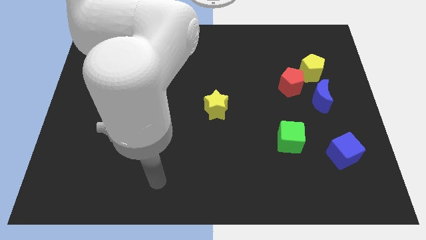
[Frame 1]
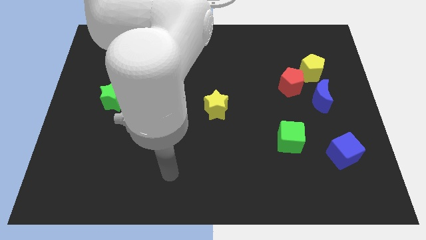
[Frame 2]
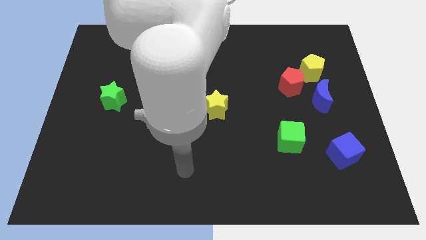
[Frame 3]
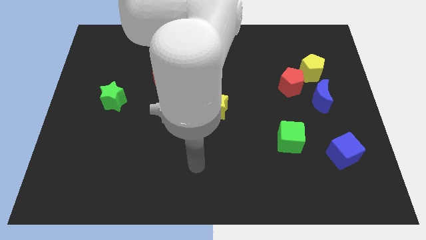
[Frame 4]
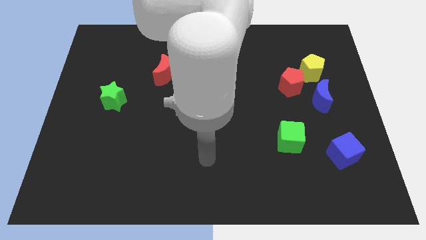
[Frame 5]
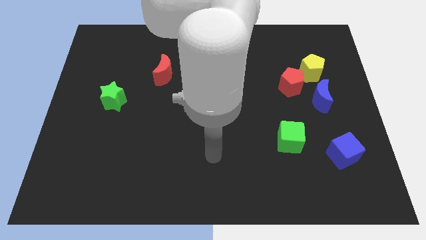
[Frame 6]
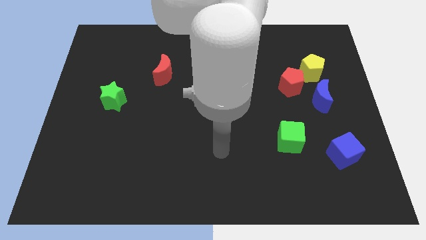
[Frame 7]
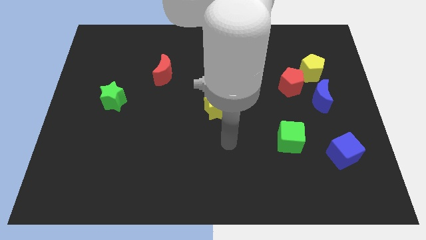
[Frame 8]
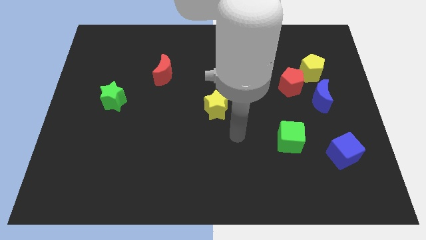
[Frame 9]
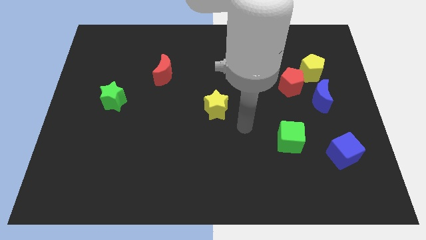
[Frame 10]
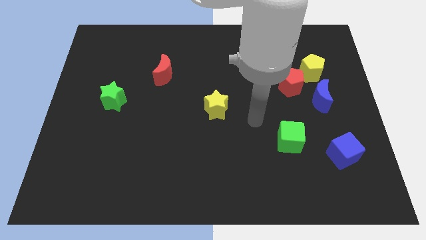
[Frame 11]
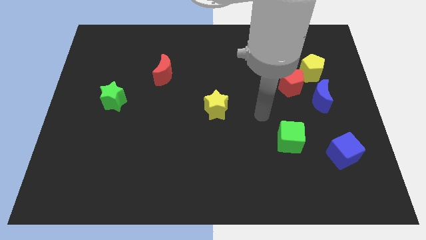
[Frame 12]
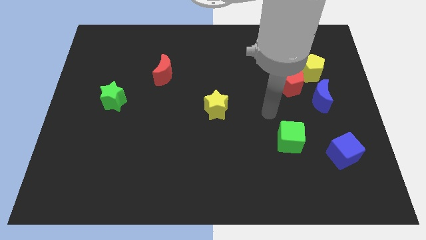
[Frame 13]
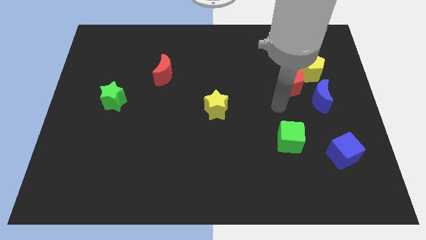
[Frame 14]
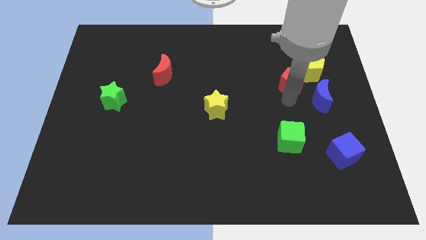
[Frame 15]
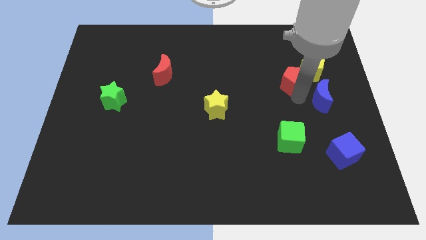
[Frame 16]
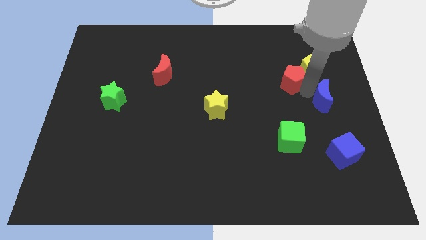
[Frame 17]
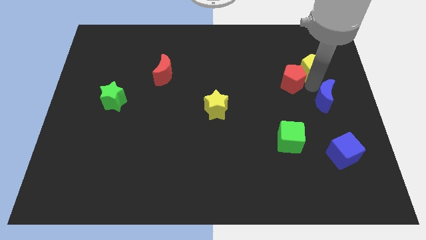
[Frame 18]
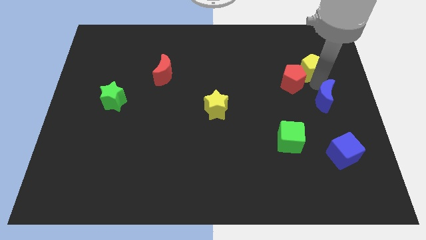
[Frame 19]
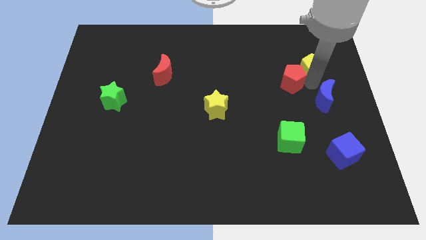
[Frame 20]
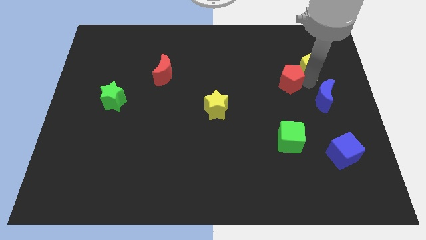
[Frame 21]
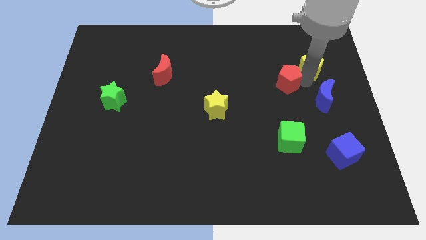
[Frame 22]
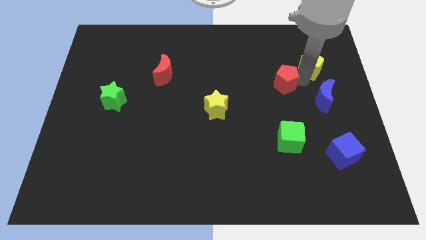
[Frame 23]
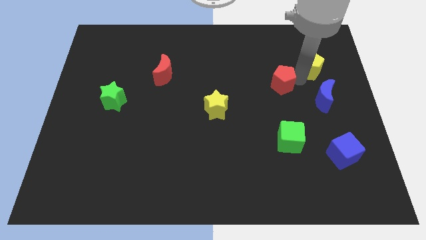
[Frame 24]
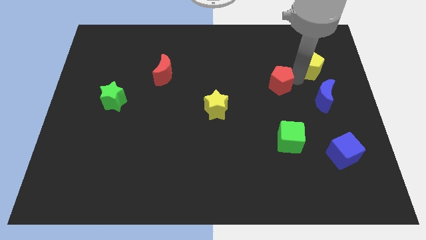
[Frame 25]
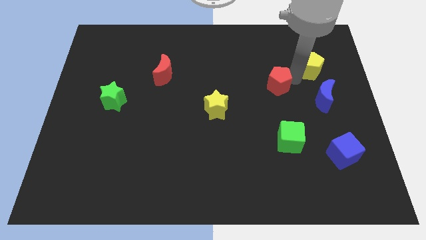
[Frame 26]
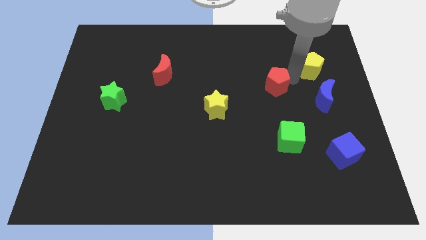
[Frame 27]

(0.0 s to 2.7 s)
pull the red pentagon apart from the yellow pentagon and blue moon

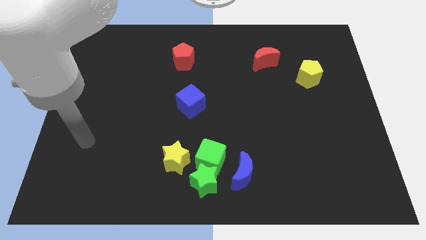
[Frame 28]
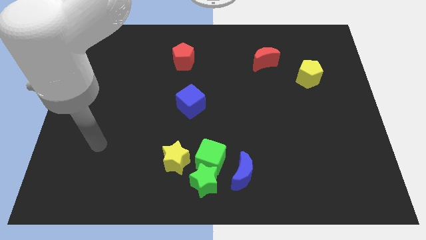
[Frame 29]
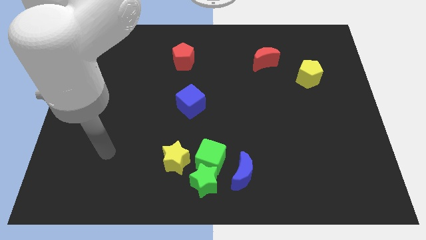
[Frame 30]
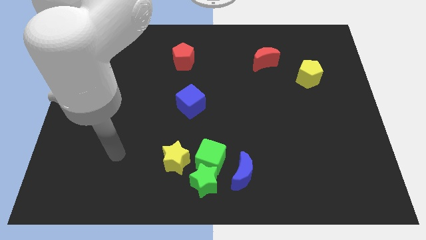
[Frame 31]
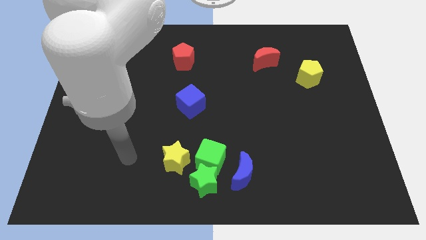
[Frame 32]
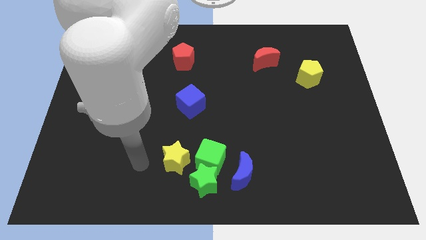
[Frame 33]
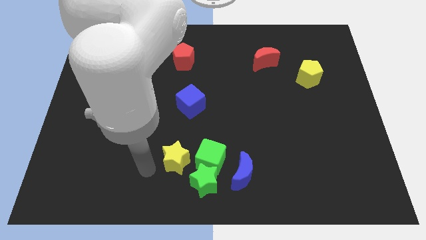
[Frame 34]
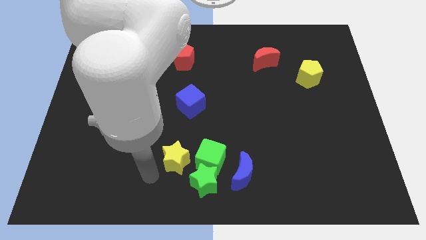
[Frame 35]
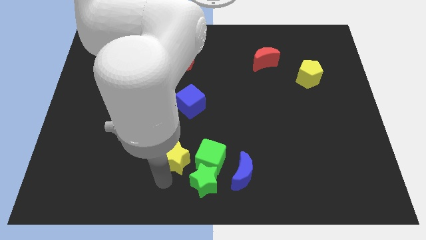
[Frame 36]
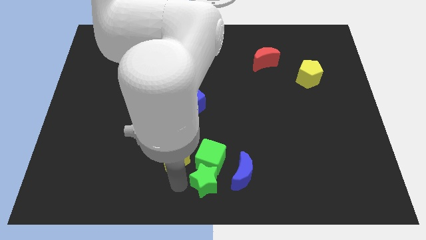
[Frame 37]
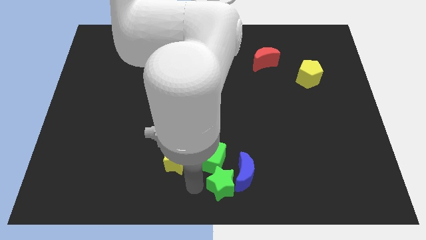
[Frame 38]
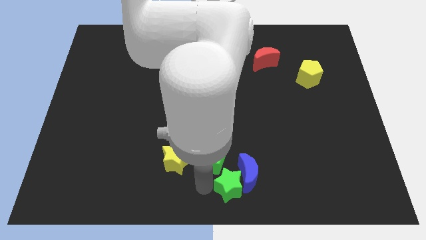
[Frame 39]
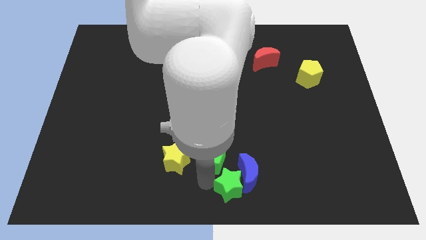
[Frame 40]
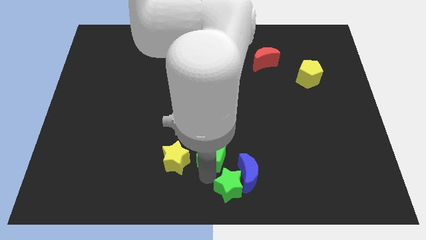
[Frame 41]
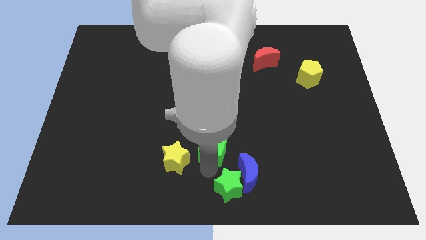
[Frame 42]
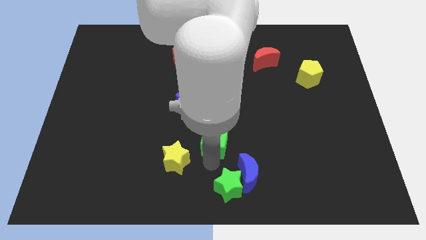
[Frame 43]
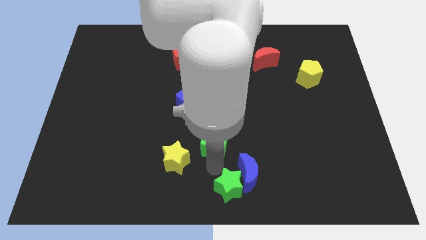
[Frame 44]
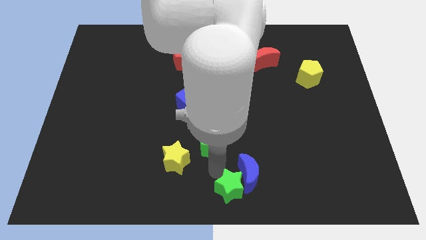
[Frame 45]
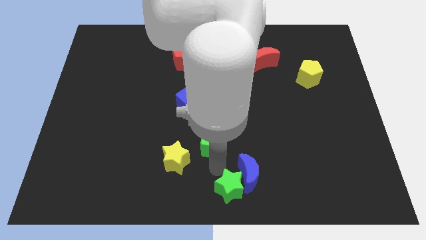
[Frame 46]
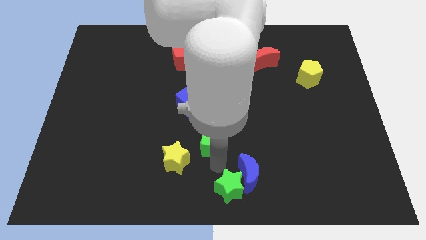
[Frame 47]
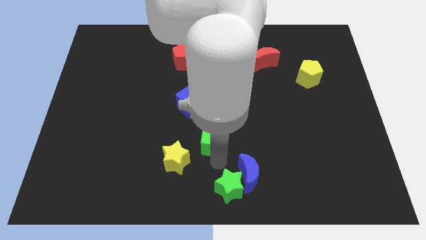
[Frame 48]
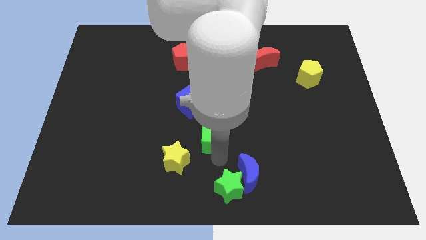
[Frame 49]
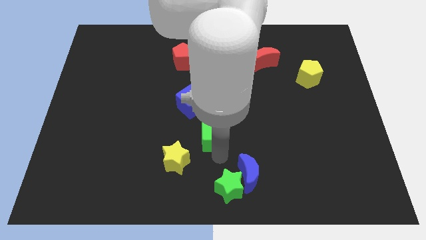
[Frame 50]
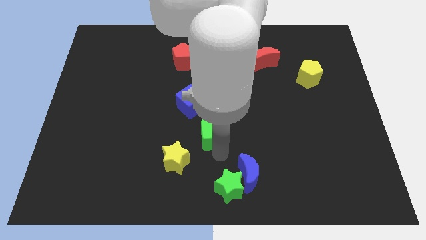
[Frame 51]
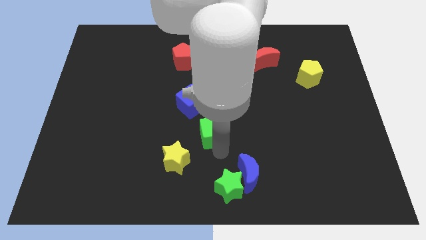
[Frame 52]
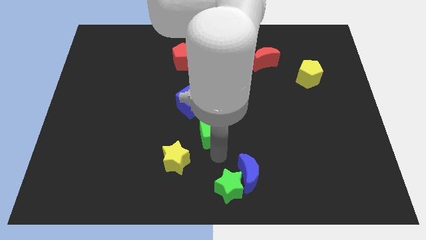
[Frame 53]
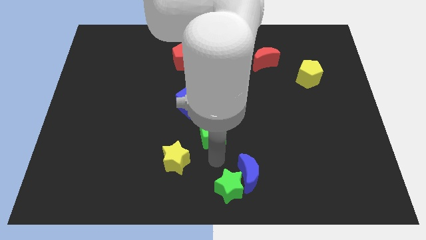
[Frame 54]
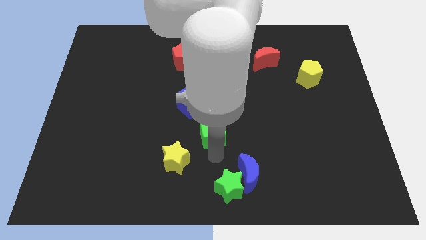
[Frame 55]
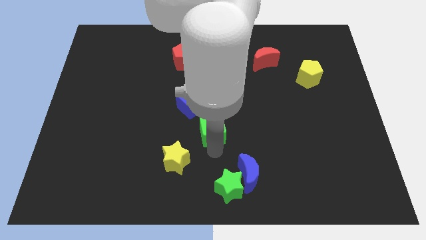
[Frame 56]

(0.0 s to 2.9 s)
separate the green cube from the green star, yellow star, and blue moon

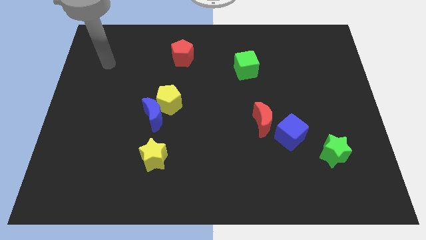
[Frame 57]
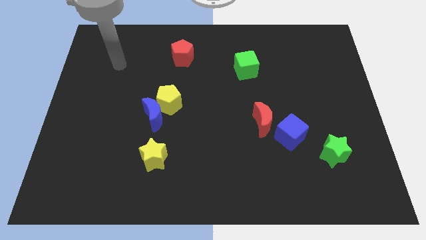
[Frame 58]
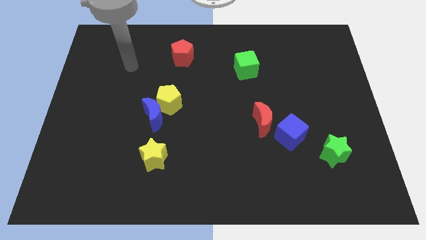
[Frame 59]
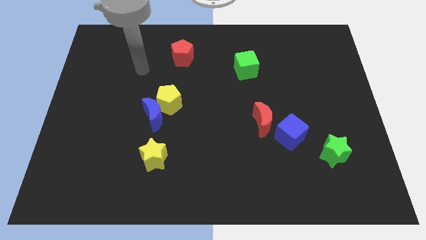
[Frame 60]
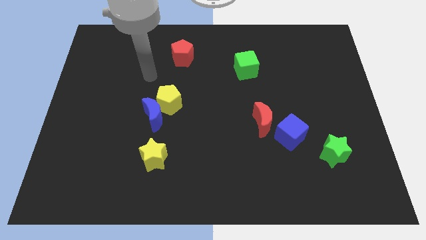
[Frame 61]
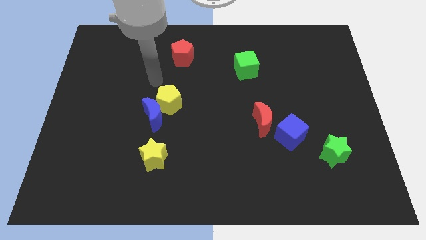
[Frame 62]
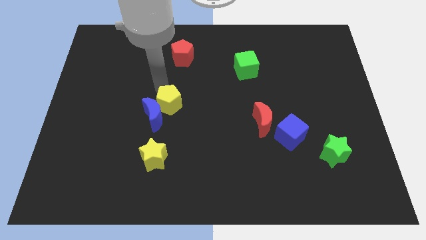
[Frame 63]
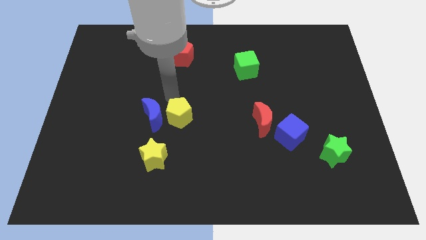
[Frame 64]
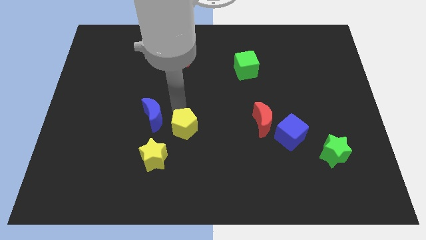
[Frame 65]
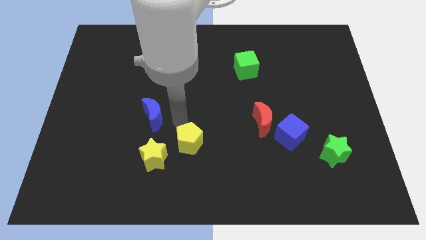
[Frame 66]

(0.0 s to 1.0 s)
move the blue moon away from the yellow pentagon

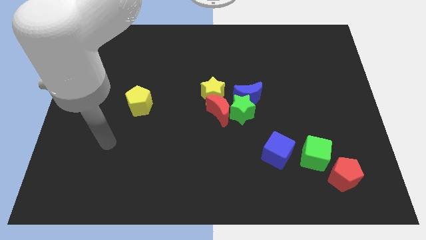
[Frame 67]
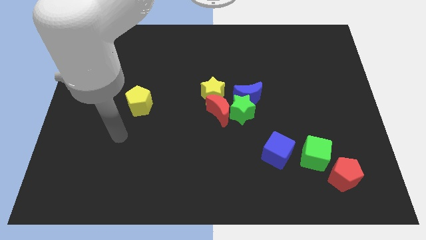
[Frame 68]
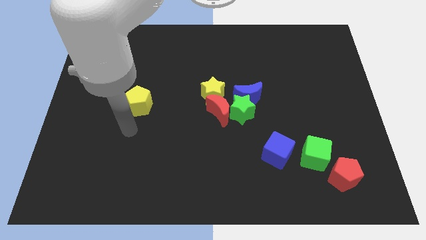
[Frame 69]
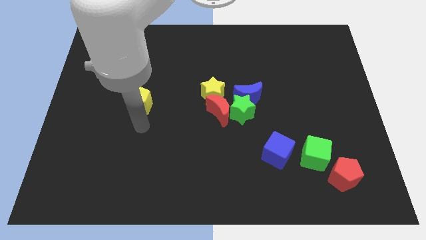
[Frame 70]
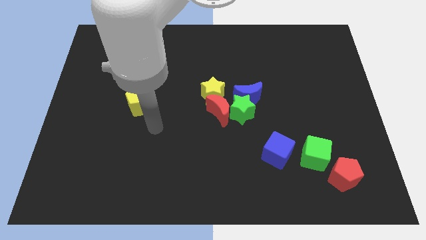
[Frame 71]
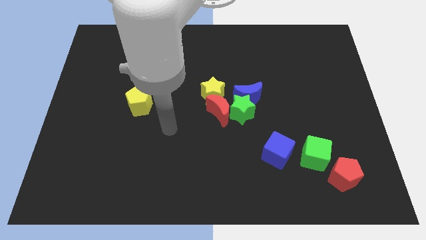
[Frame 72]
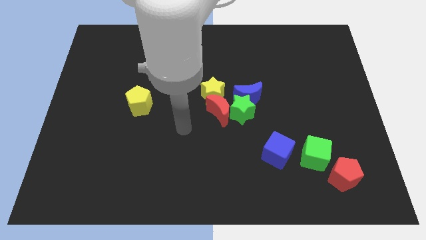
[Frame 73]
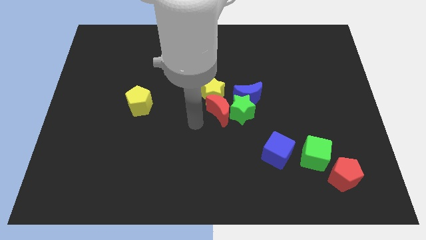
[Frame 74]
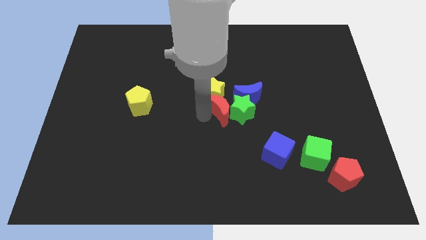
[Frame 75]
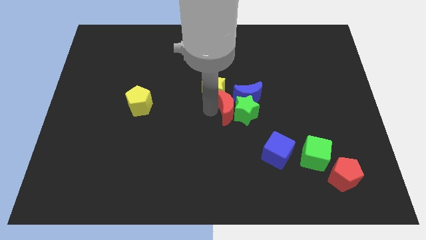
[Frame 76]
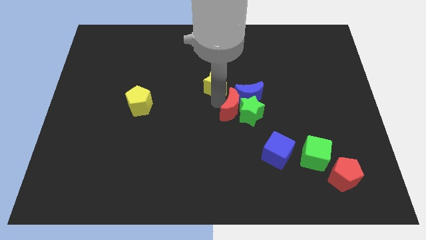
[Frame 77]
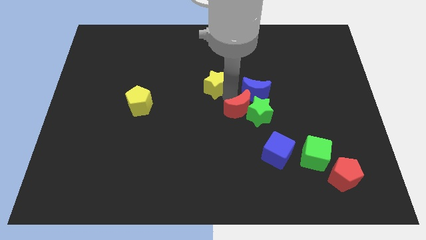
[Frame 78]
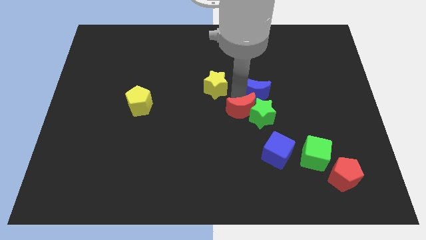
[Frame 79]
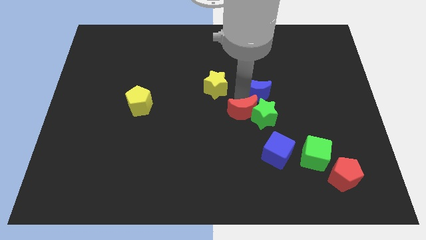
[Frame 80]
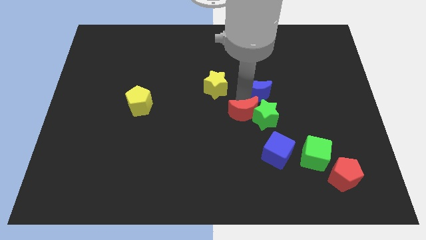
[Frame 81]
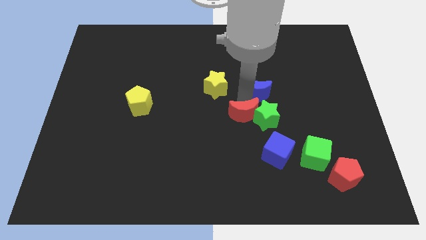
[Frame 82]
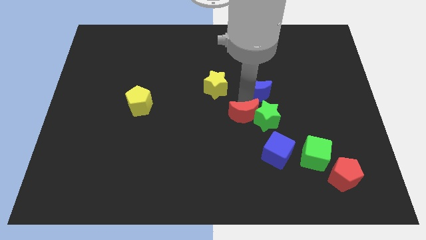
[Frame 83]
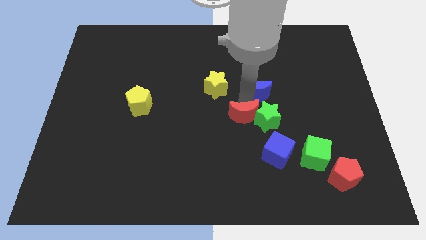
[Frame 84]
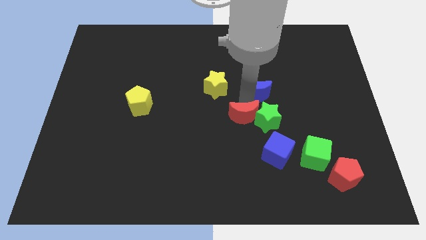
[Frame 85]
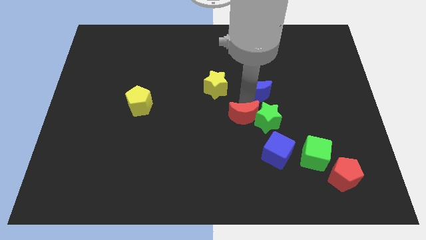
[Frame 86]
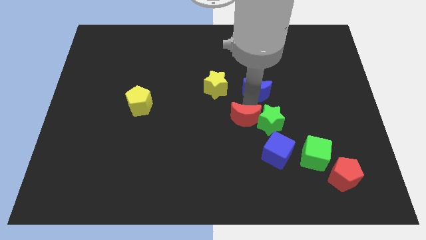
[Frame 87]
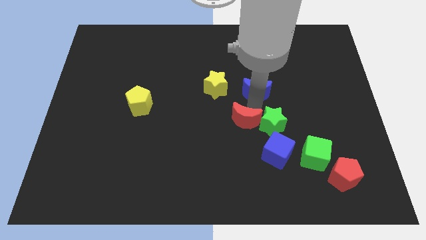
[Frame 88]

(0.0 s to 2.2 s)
separate the green star from the group

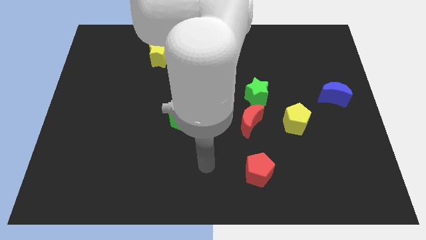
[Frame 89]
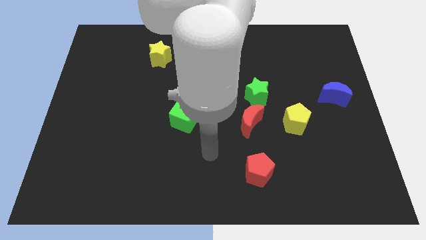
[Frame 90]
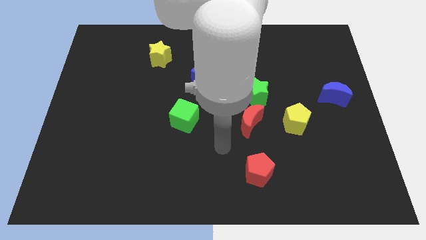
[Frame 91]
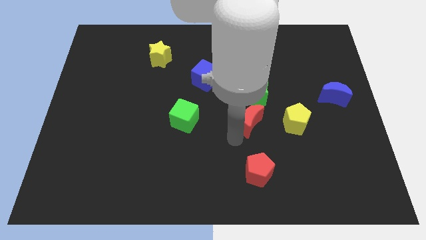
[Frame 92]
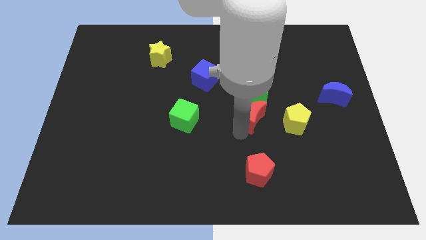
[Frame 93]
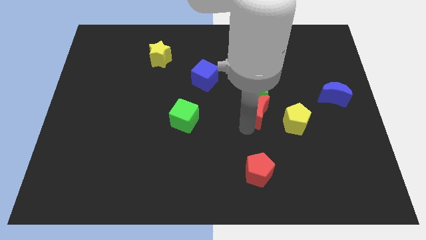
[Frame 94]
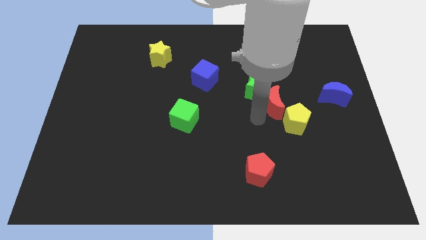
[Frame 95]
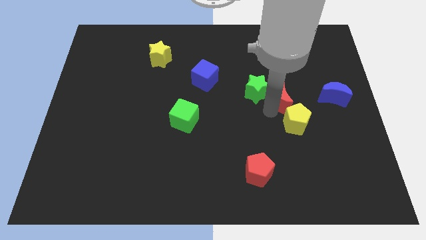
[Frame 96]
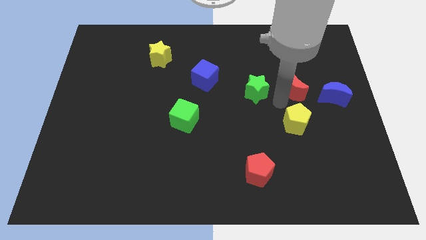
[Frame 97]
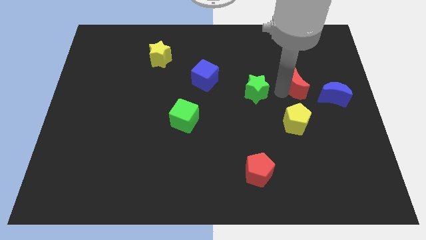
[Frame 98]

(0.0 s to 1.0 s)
separate the green star from the red moon
